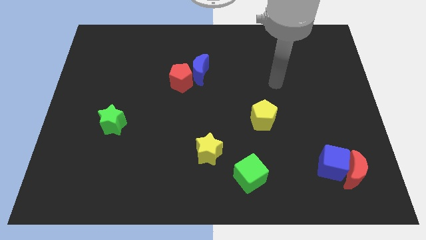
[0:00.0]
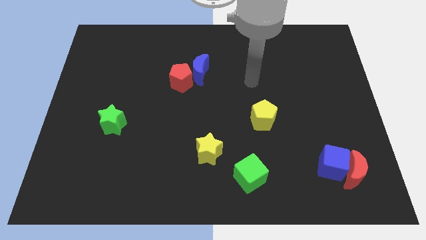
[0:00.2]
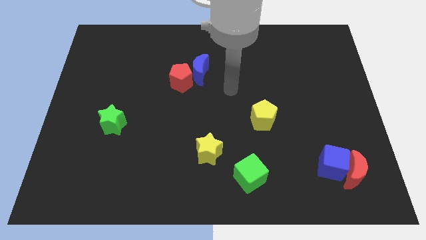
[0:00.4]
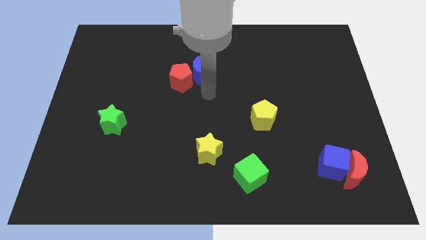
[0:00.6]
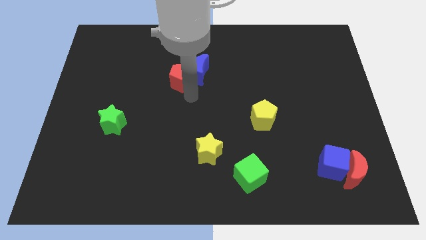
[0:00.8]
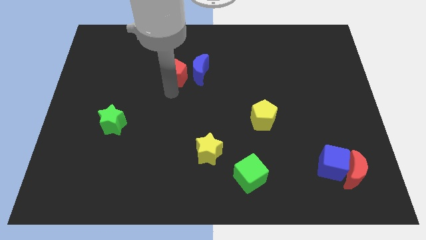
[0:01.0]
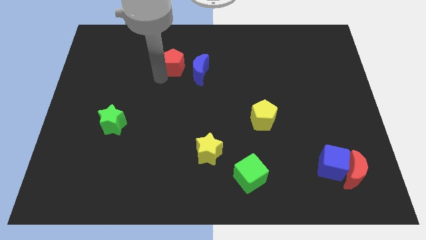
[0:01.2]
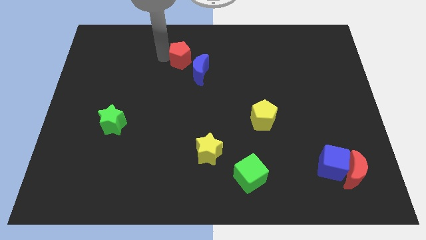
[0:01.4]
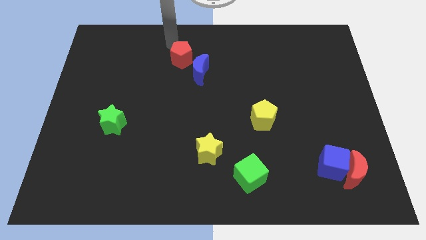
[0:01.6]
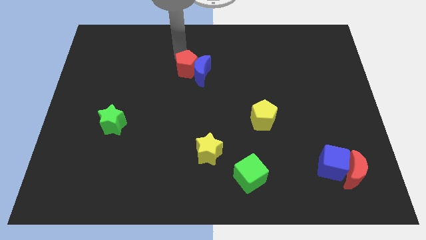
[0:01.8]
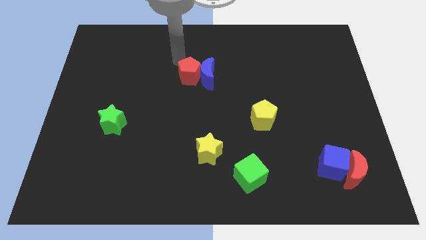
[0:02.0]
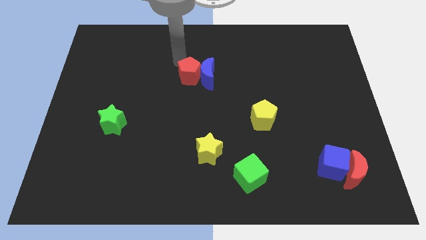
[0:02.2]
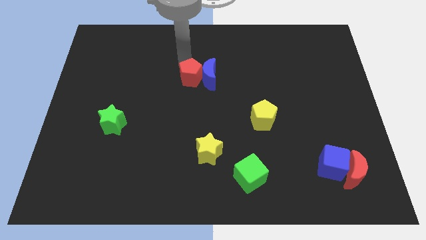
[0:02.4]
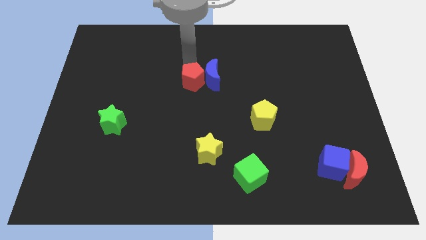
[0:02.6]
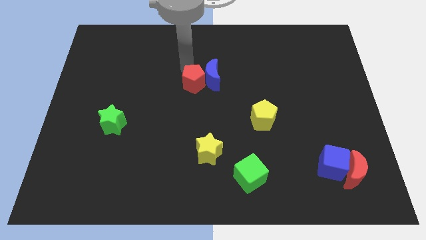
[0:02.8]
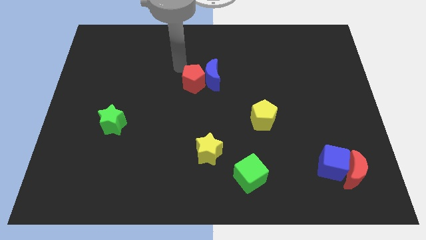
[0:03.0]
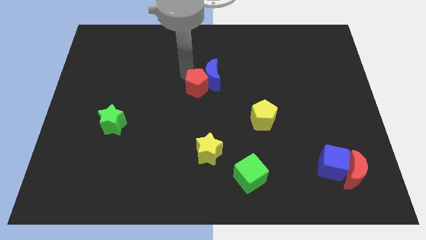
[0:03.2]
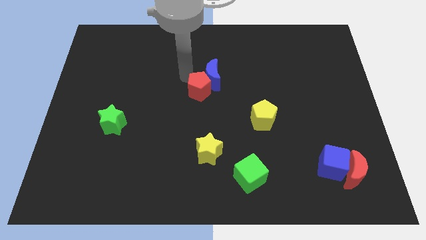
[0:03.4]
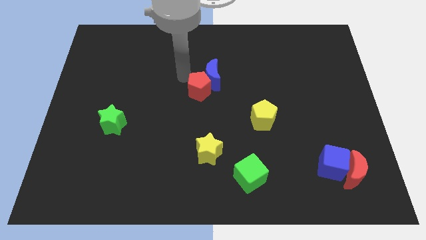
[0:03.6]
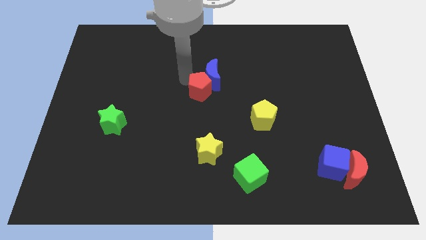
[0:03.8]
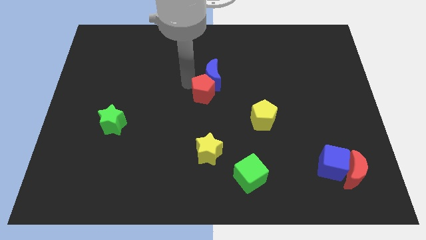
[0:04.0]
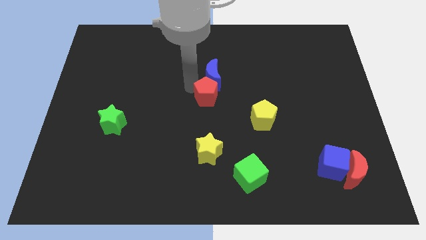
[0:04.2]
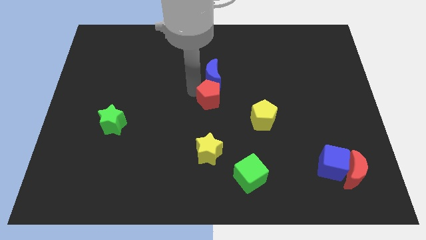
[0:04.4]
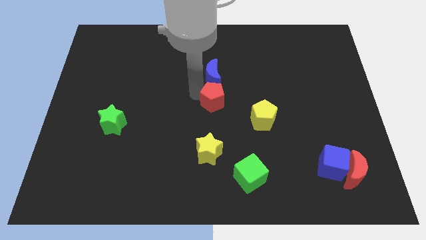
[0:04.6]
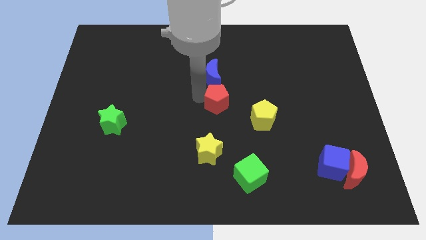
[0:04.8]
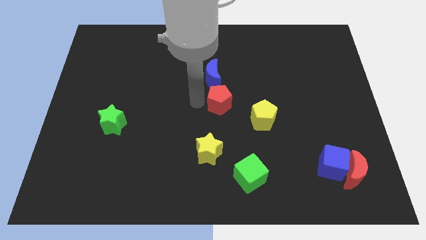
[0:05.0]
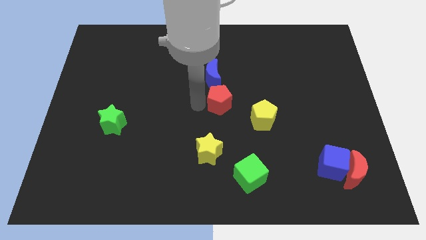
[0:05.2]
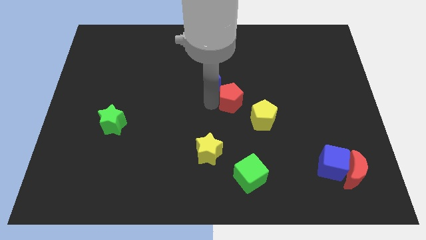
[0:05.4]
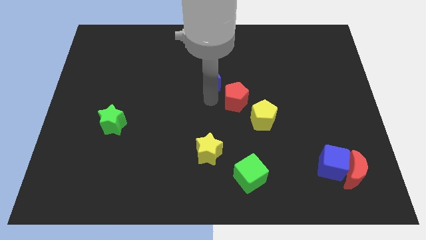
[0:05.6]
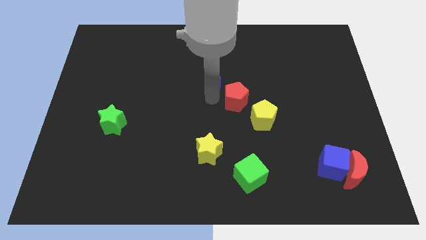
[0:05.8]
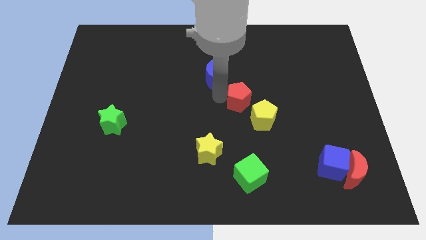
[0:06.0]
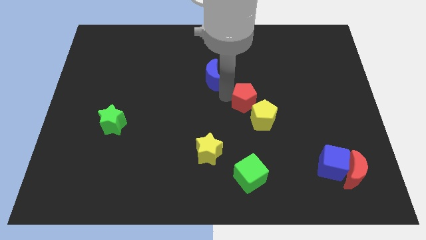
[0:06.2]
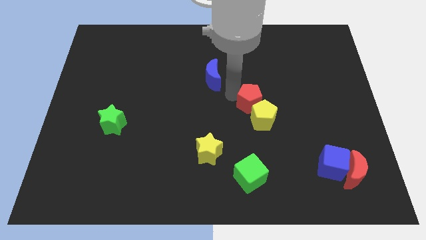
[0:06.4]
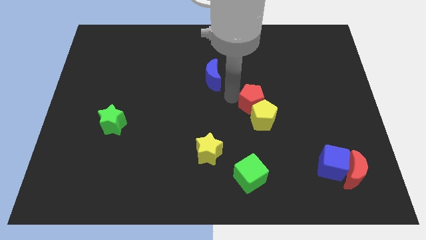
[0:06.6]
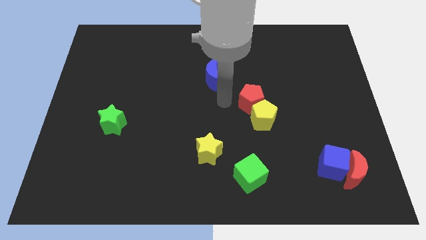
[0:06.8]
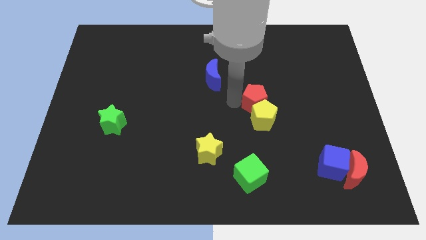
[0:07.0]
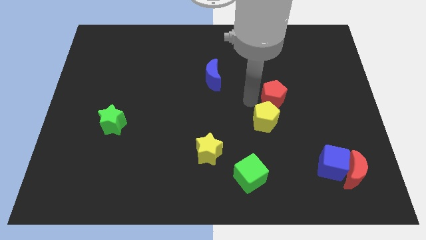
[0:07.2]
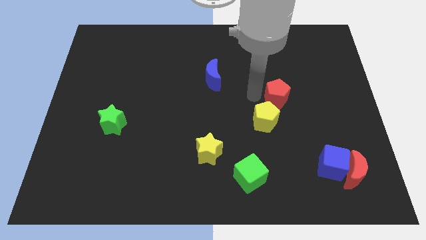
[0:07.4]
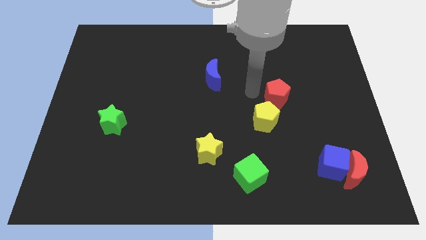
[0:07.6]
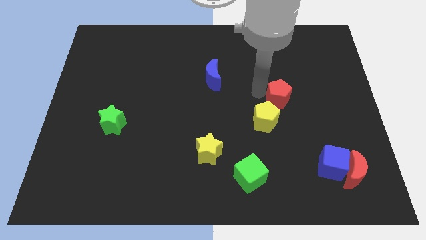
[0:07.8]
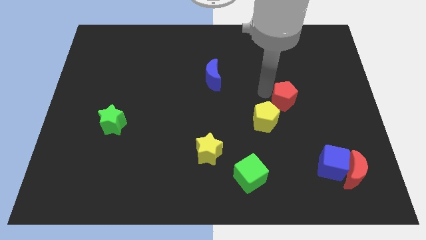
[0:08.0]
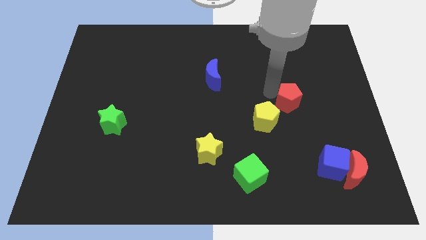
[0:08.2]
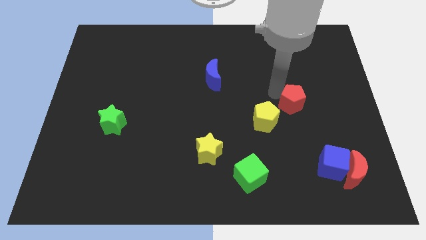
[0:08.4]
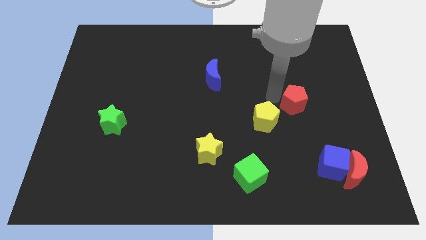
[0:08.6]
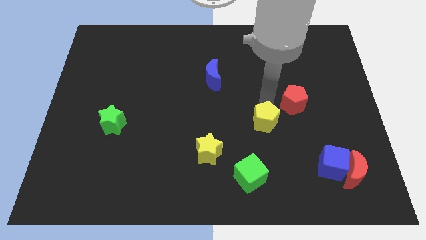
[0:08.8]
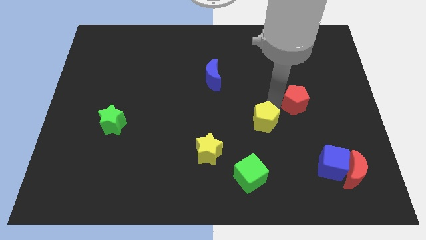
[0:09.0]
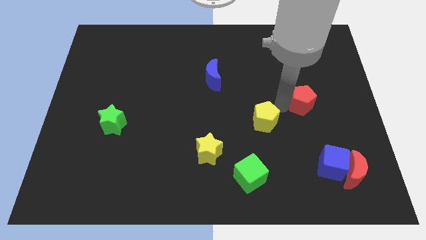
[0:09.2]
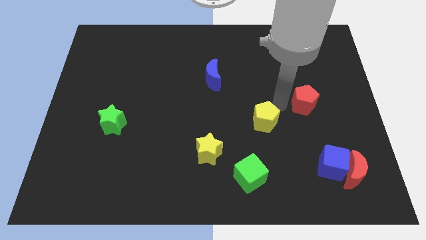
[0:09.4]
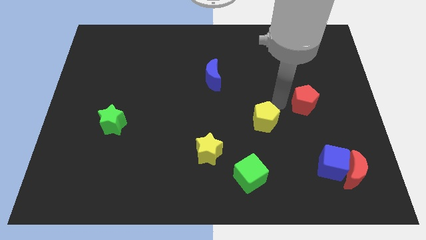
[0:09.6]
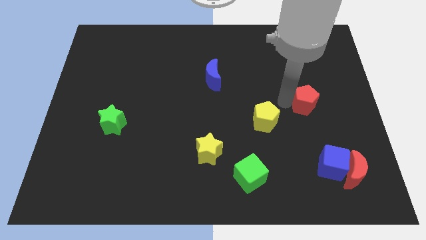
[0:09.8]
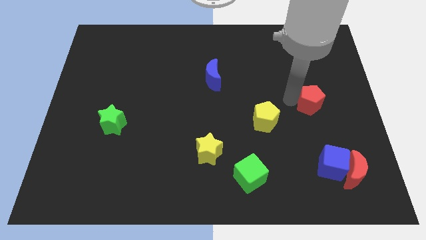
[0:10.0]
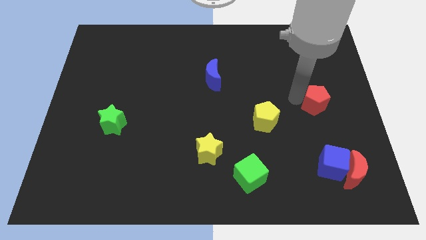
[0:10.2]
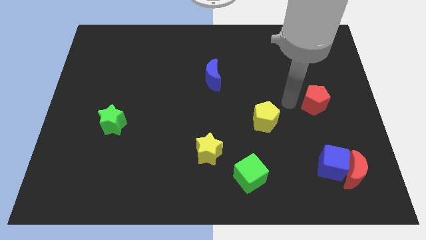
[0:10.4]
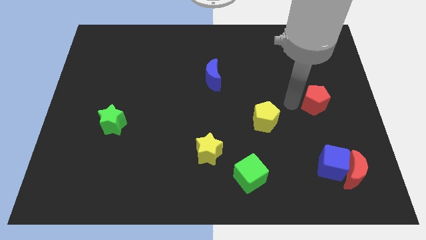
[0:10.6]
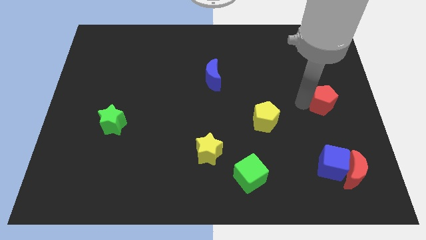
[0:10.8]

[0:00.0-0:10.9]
slide the red pentagon to the right side
